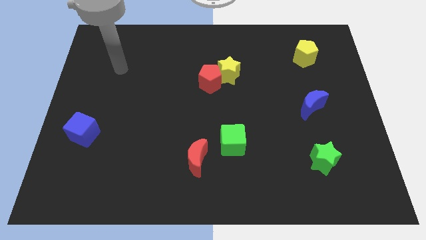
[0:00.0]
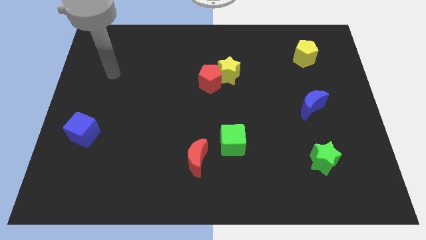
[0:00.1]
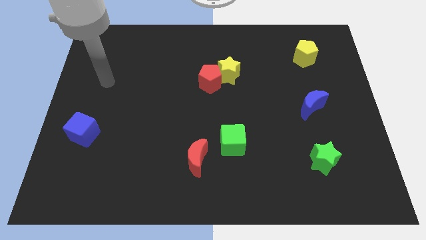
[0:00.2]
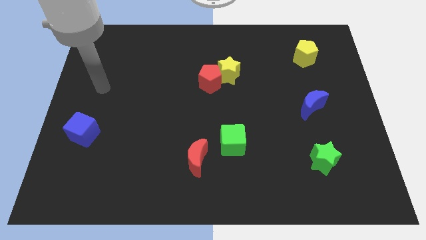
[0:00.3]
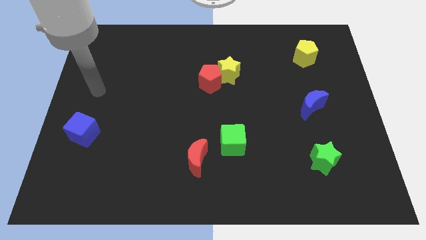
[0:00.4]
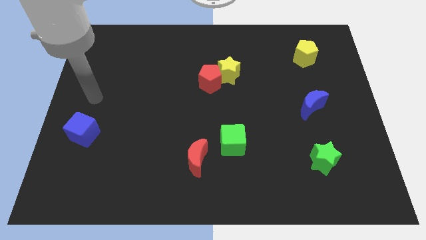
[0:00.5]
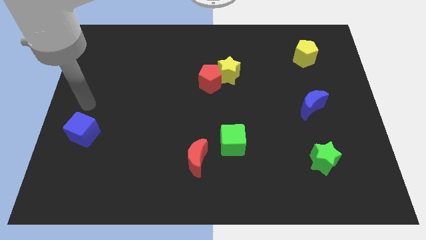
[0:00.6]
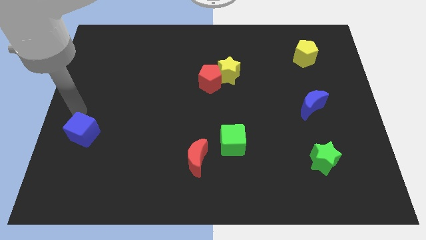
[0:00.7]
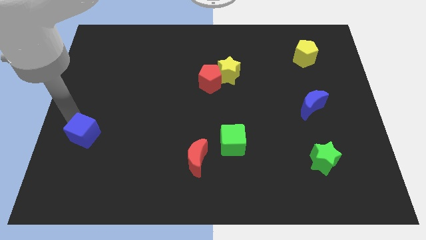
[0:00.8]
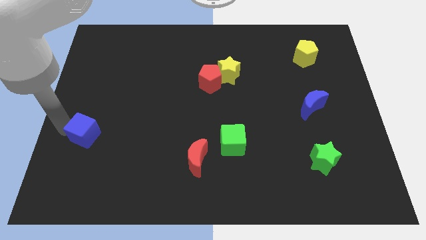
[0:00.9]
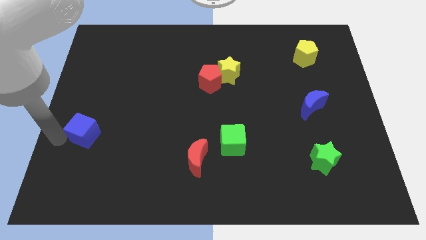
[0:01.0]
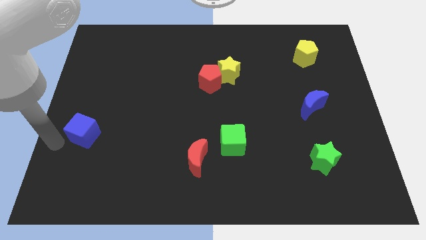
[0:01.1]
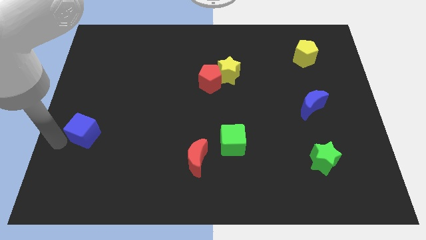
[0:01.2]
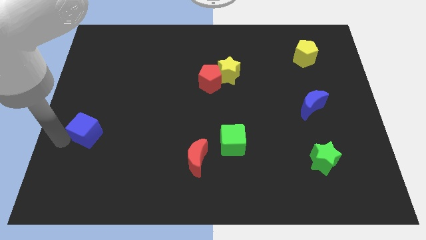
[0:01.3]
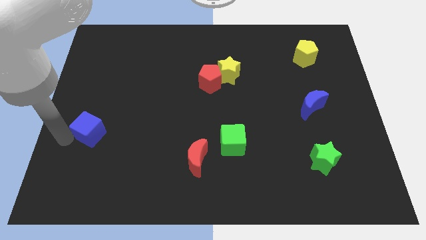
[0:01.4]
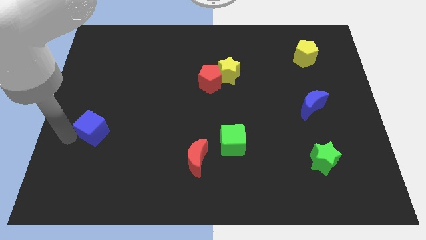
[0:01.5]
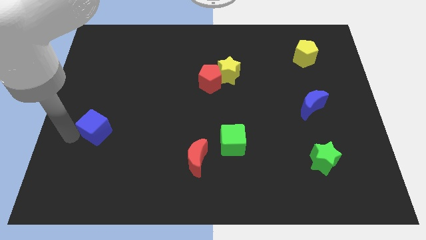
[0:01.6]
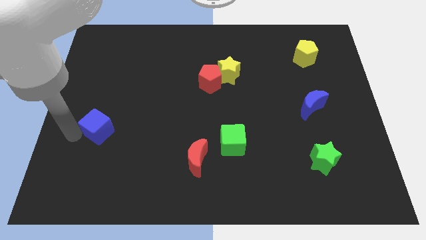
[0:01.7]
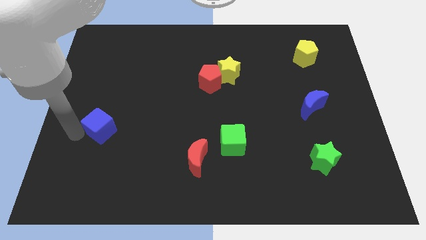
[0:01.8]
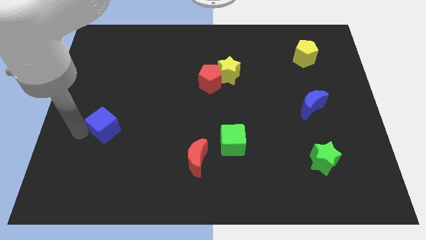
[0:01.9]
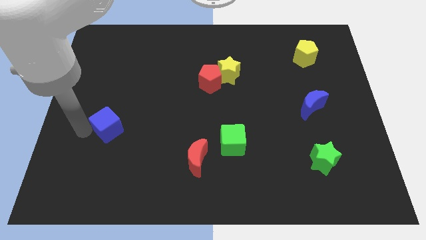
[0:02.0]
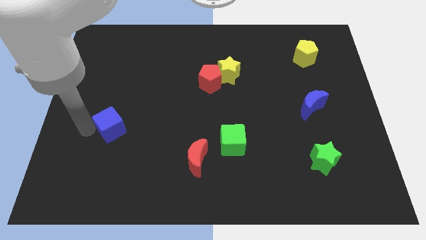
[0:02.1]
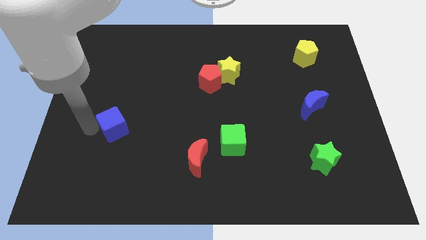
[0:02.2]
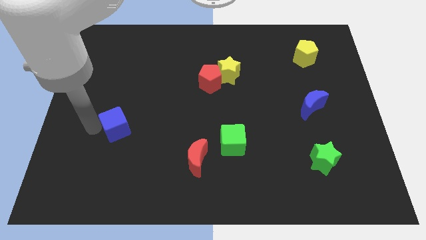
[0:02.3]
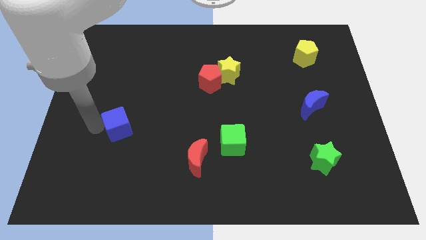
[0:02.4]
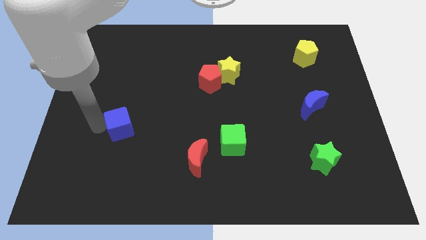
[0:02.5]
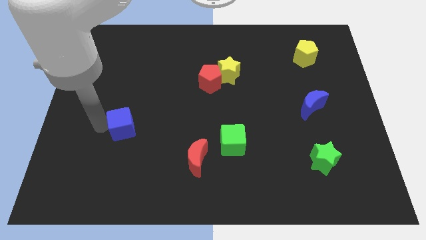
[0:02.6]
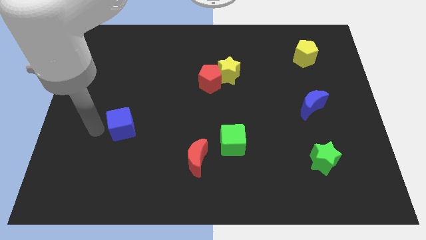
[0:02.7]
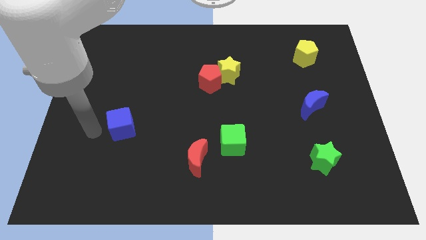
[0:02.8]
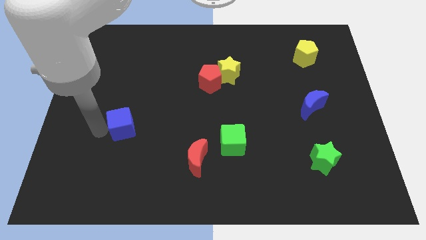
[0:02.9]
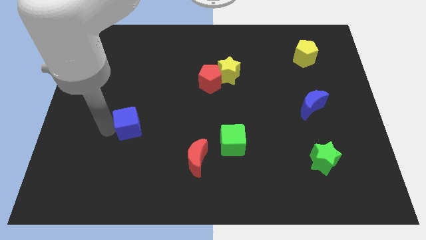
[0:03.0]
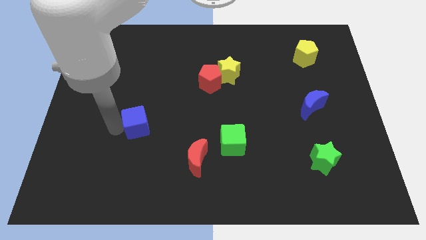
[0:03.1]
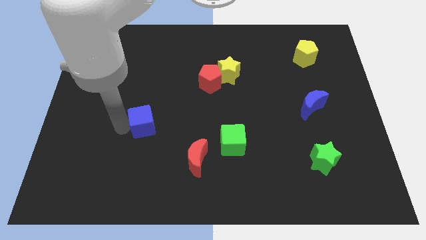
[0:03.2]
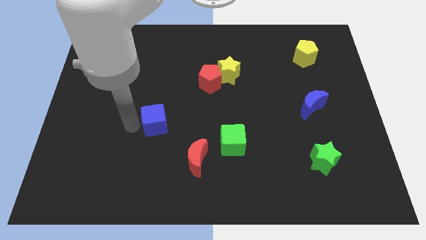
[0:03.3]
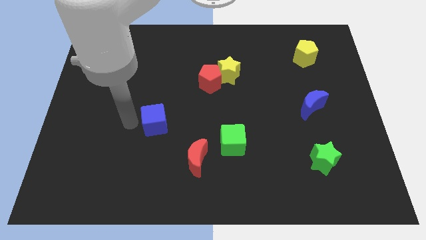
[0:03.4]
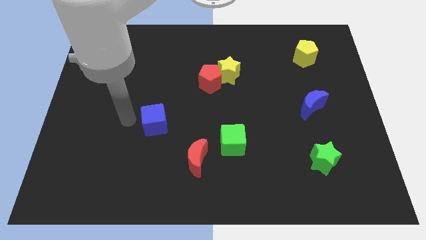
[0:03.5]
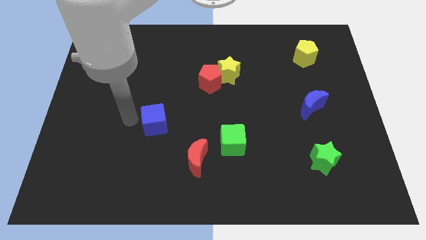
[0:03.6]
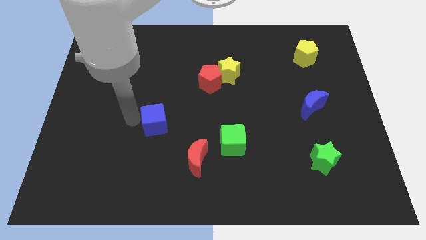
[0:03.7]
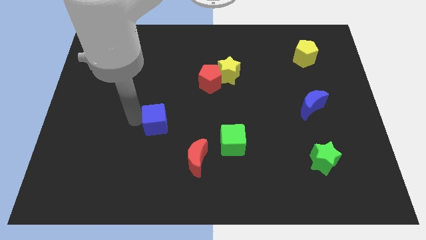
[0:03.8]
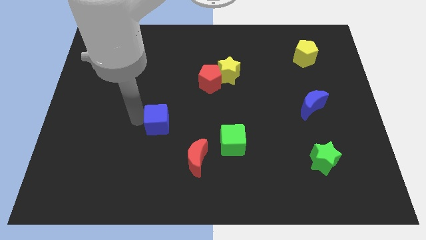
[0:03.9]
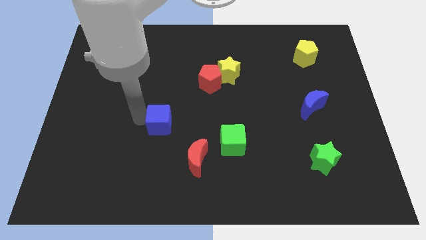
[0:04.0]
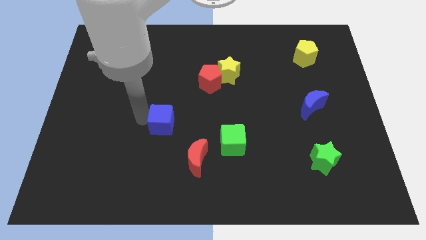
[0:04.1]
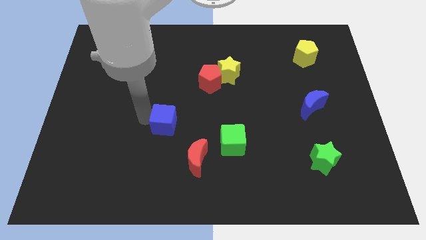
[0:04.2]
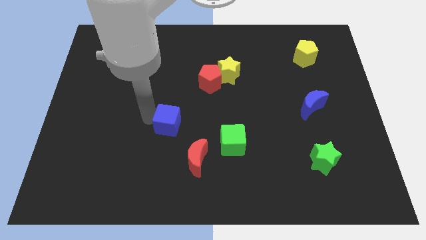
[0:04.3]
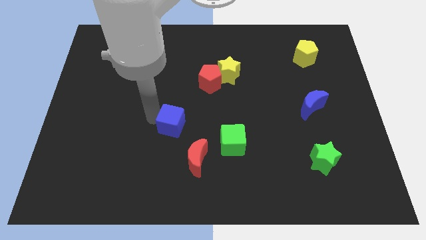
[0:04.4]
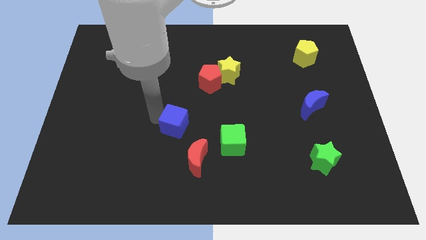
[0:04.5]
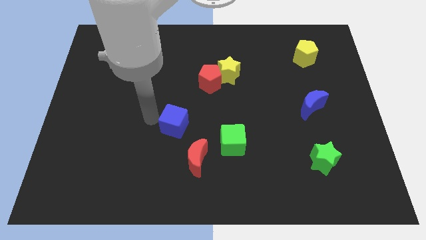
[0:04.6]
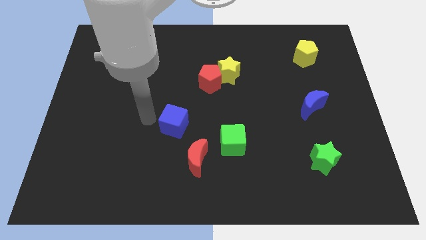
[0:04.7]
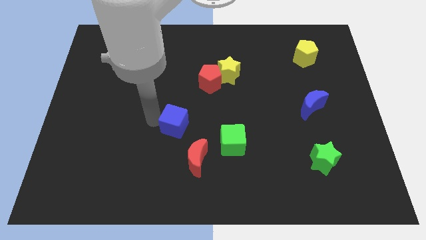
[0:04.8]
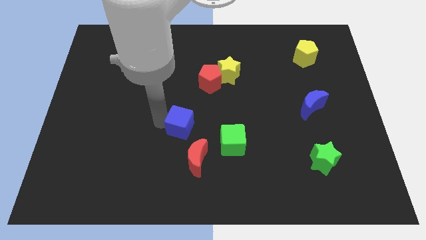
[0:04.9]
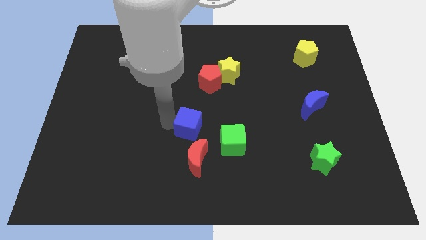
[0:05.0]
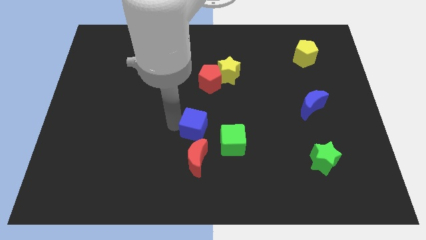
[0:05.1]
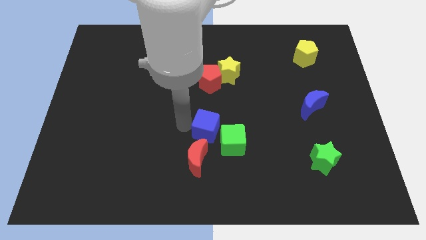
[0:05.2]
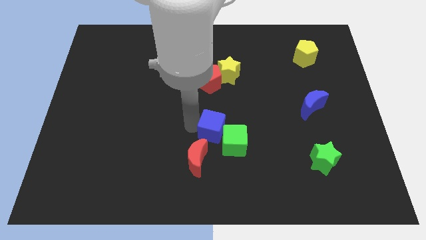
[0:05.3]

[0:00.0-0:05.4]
move the blue cube next to the green cube

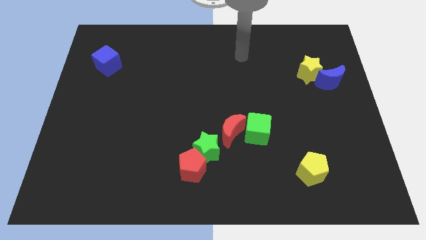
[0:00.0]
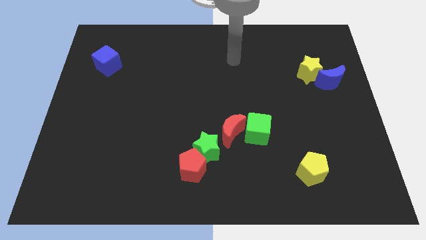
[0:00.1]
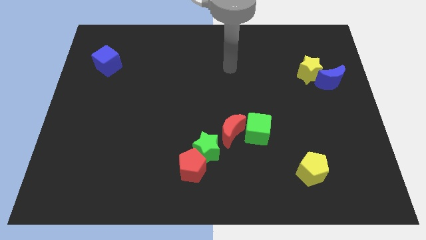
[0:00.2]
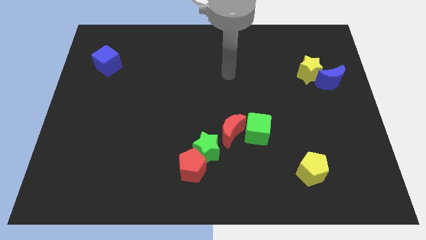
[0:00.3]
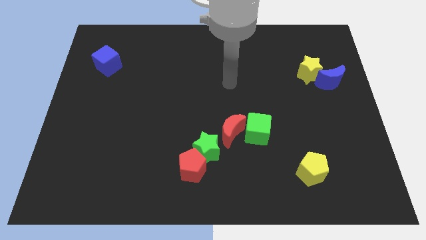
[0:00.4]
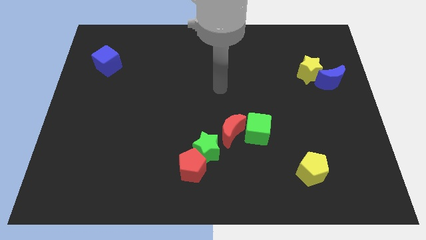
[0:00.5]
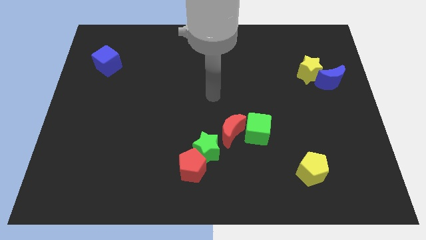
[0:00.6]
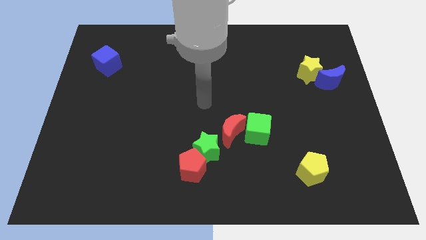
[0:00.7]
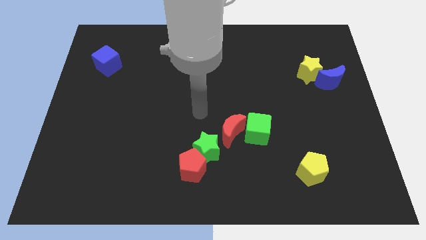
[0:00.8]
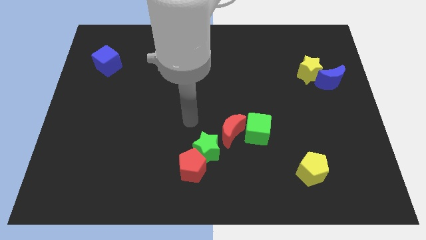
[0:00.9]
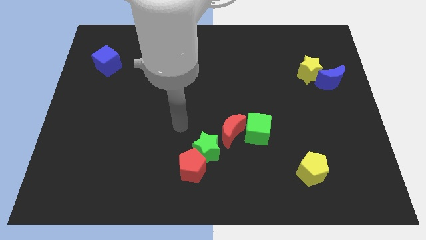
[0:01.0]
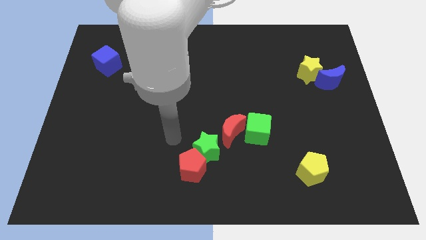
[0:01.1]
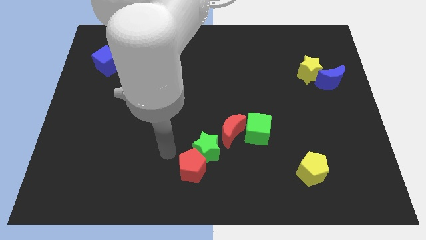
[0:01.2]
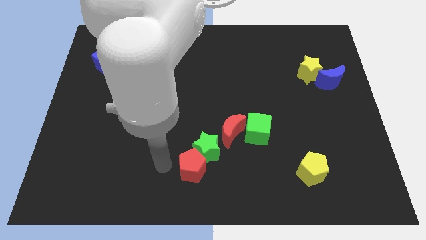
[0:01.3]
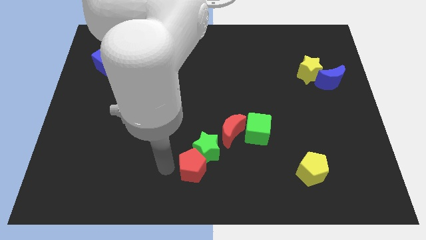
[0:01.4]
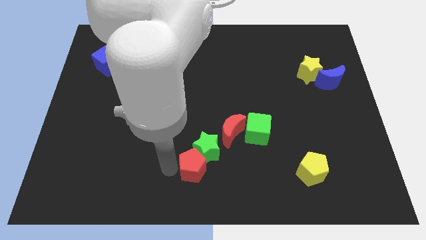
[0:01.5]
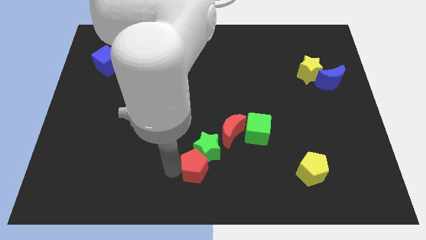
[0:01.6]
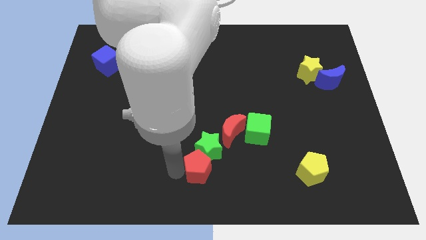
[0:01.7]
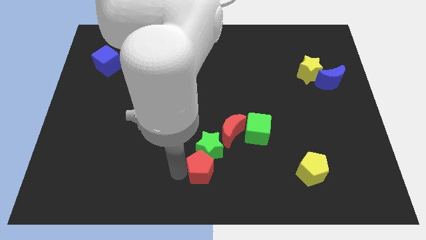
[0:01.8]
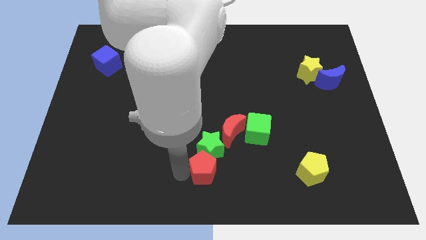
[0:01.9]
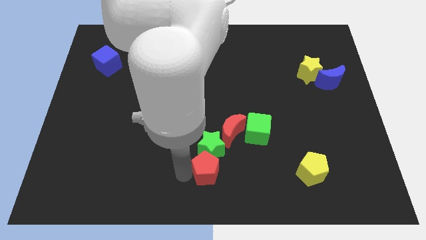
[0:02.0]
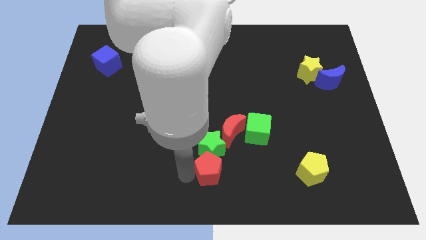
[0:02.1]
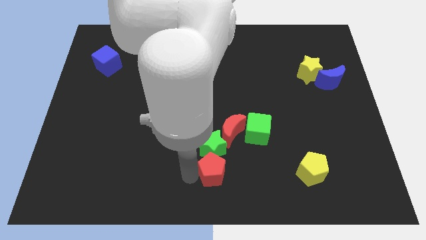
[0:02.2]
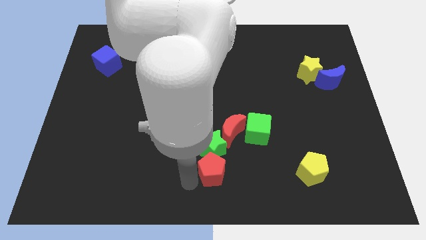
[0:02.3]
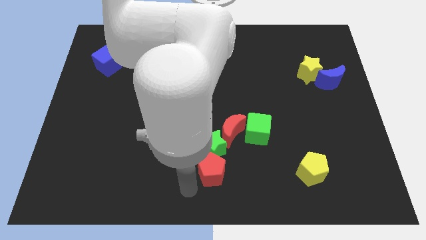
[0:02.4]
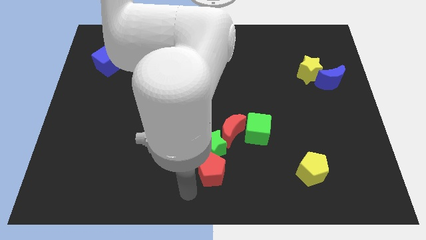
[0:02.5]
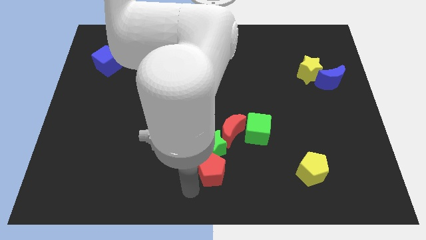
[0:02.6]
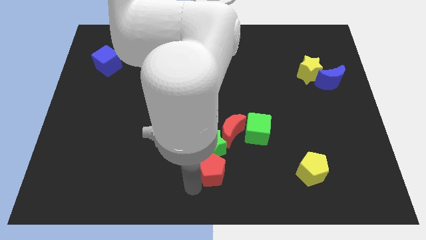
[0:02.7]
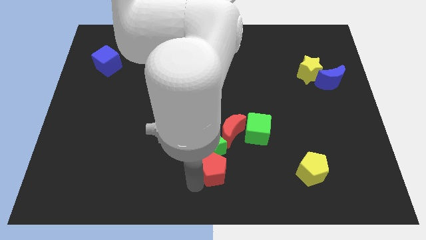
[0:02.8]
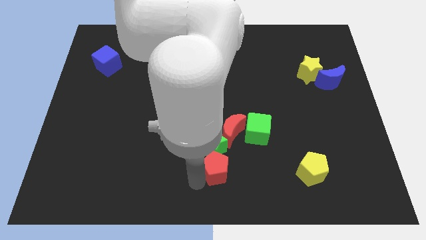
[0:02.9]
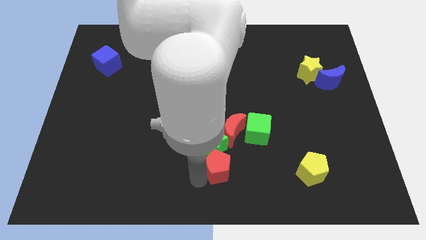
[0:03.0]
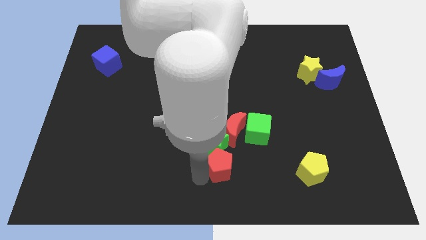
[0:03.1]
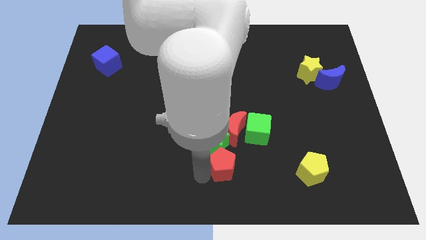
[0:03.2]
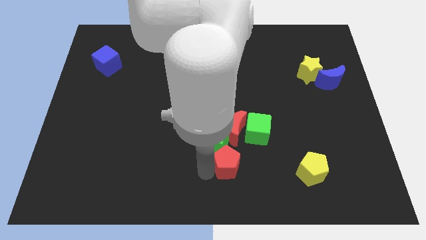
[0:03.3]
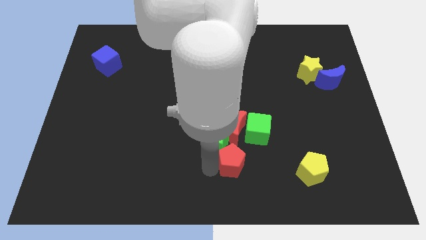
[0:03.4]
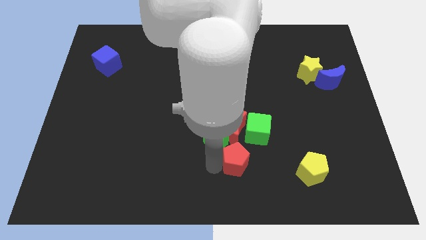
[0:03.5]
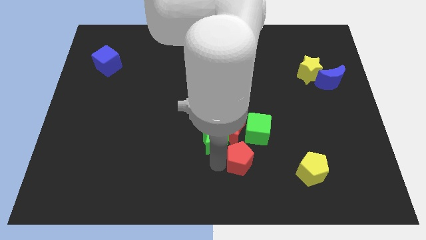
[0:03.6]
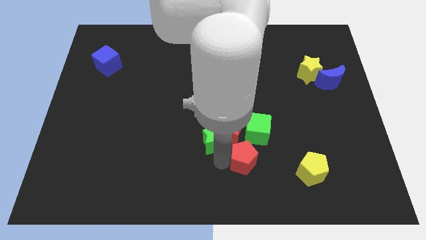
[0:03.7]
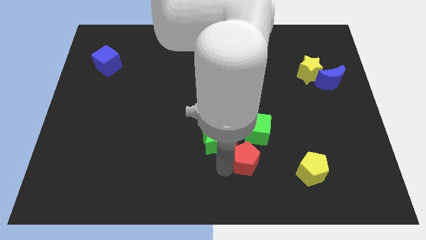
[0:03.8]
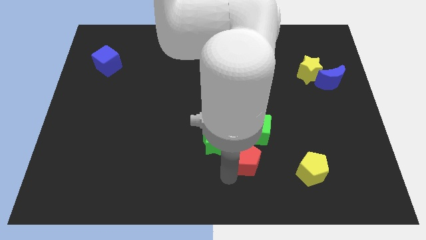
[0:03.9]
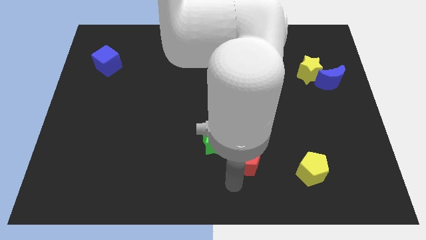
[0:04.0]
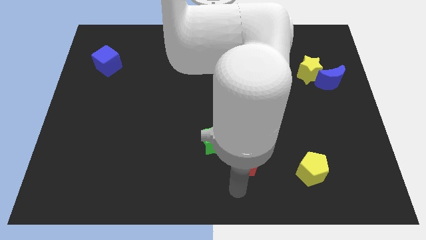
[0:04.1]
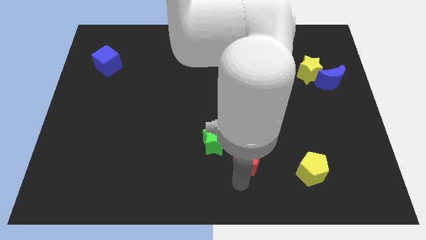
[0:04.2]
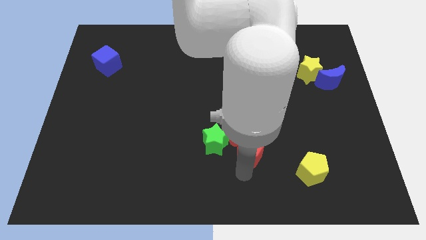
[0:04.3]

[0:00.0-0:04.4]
slide the red pentagon next to the green cube
